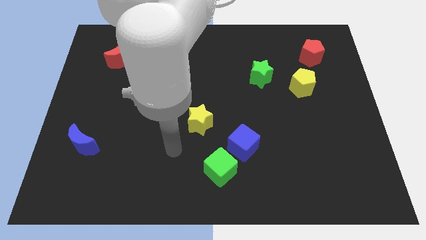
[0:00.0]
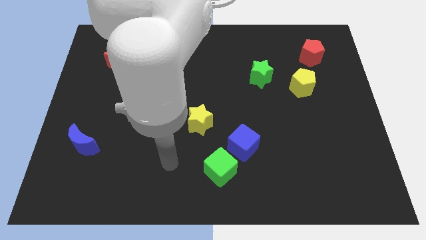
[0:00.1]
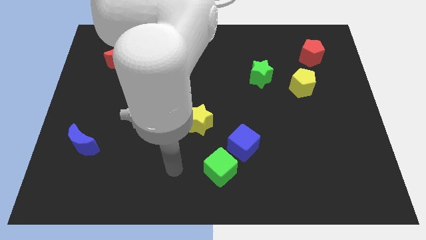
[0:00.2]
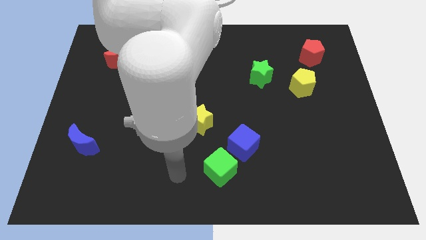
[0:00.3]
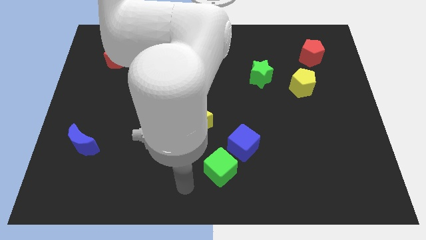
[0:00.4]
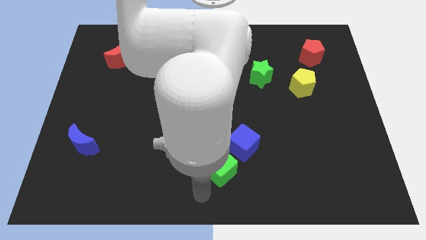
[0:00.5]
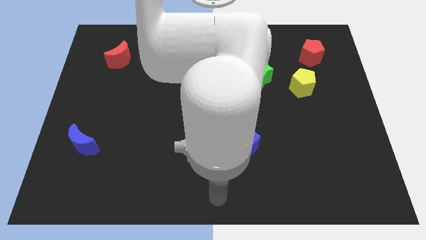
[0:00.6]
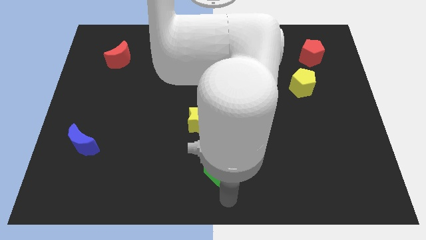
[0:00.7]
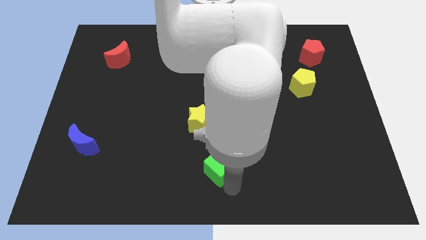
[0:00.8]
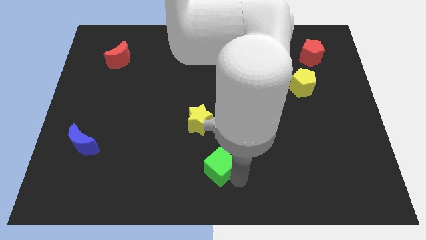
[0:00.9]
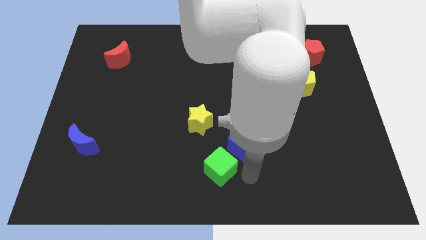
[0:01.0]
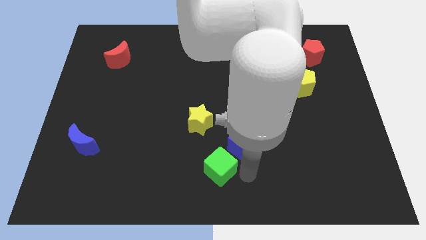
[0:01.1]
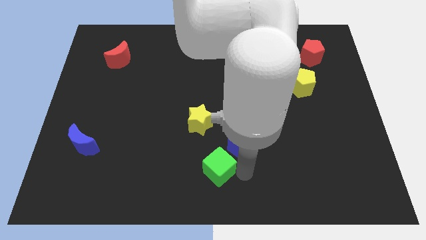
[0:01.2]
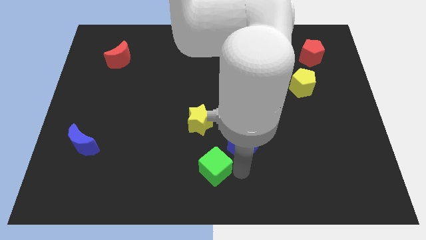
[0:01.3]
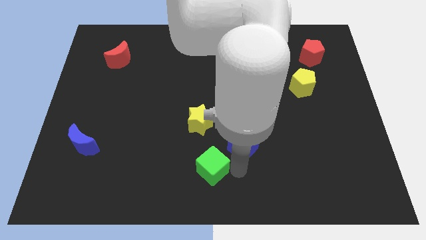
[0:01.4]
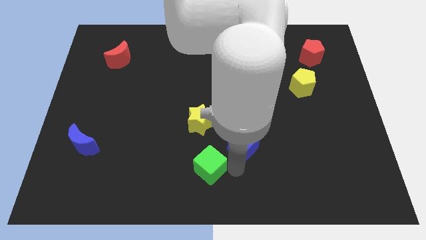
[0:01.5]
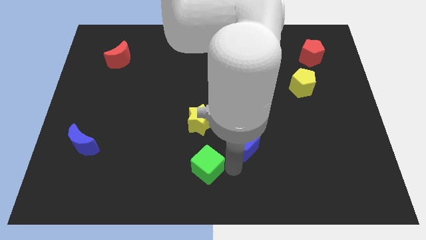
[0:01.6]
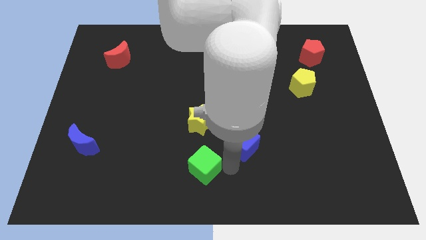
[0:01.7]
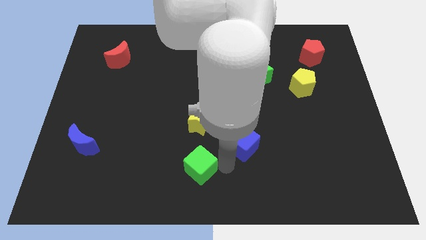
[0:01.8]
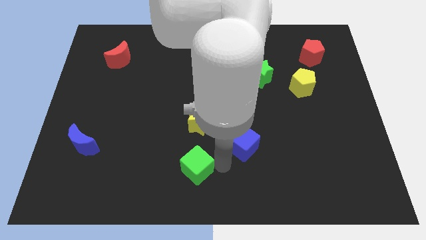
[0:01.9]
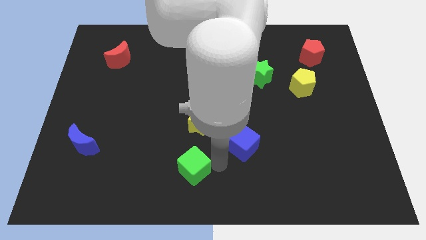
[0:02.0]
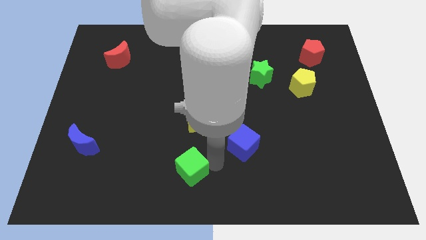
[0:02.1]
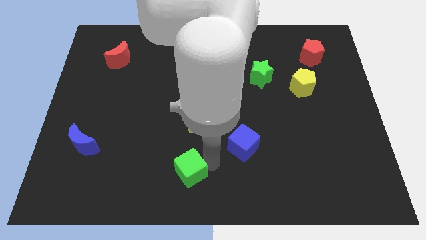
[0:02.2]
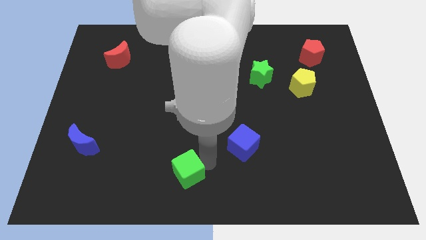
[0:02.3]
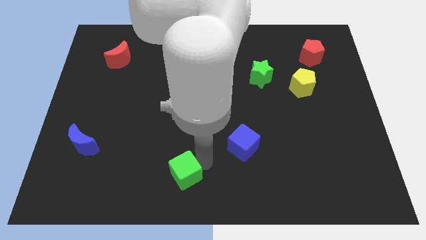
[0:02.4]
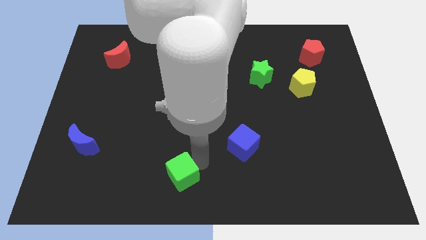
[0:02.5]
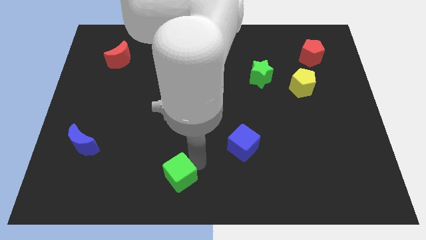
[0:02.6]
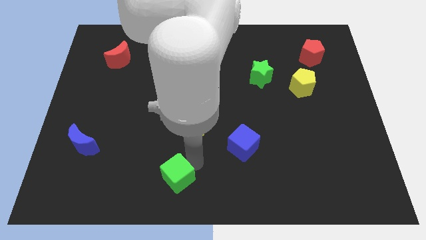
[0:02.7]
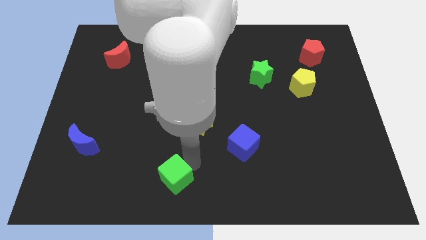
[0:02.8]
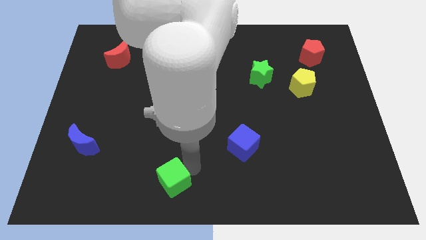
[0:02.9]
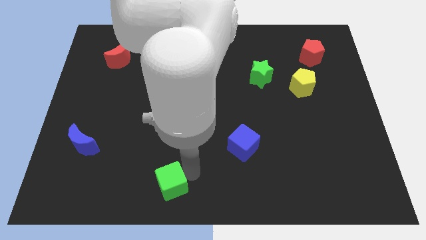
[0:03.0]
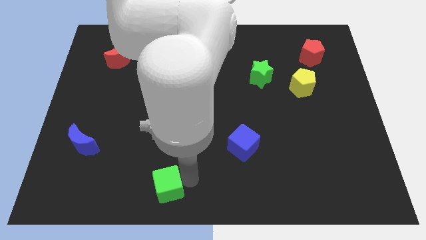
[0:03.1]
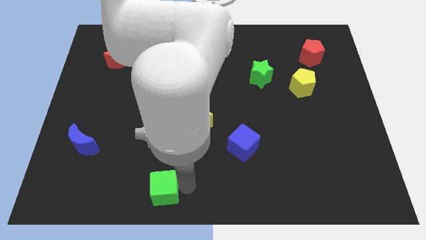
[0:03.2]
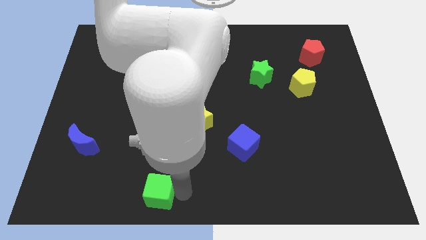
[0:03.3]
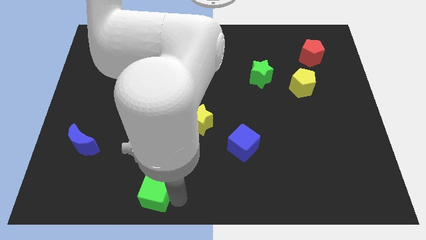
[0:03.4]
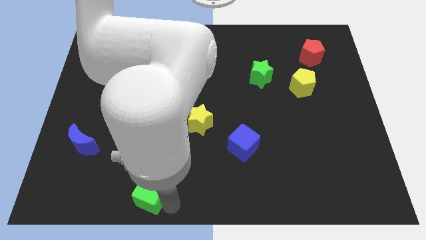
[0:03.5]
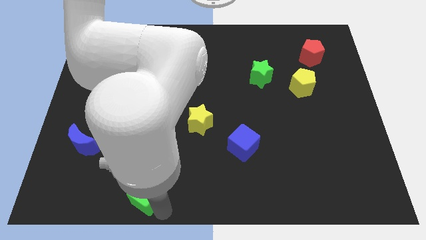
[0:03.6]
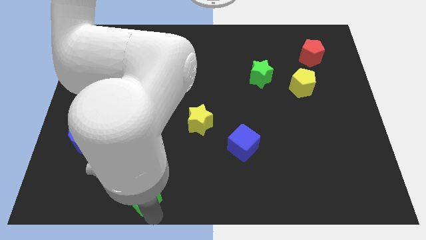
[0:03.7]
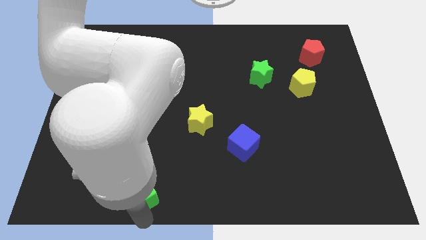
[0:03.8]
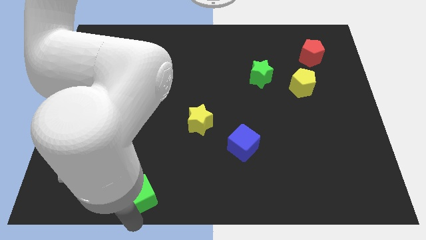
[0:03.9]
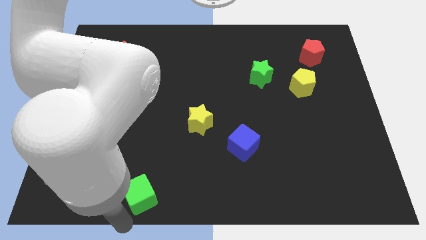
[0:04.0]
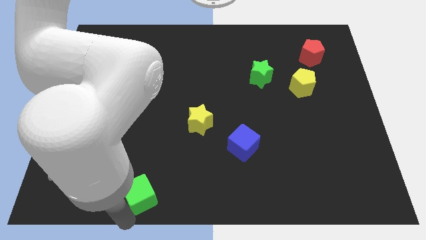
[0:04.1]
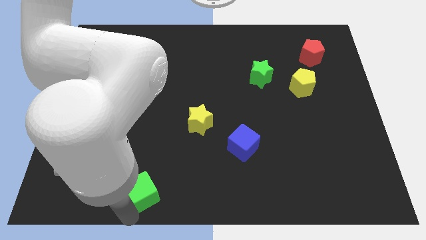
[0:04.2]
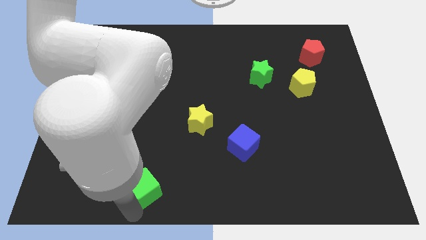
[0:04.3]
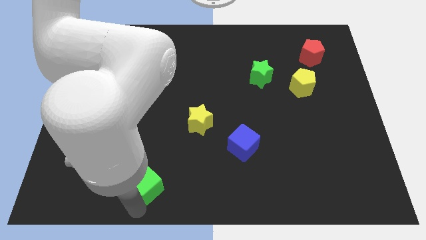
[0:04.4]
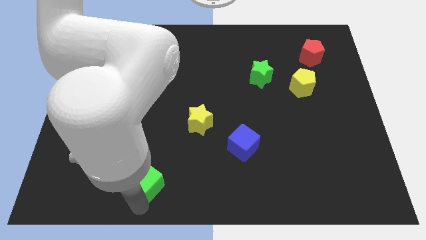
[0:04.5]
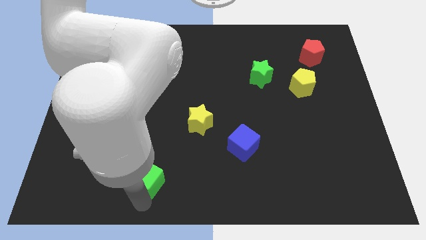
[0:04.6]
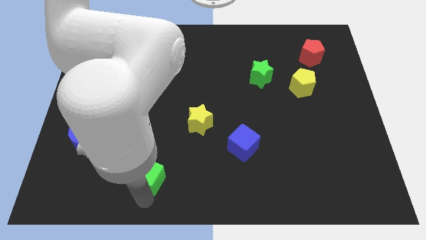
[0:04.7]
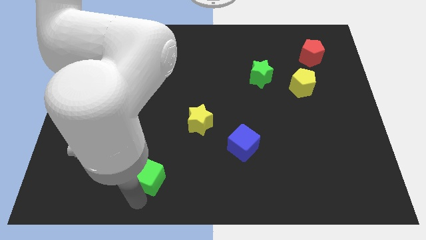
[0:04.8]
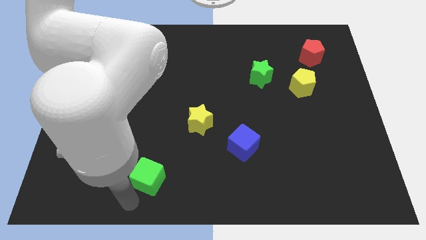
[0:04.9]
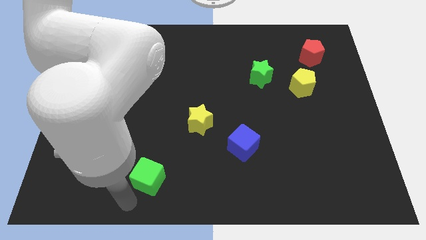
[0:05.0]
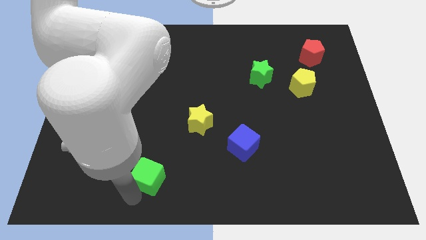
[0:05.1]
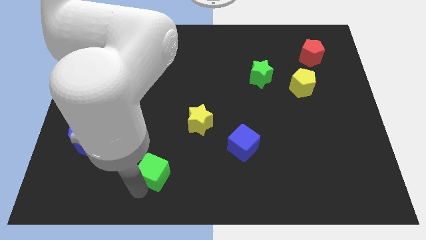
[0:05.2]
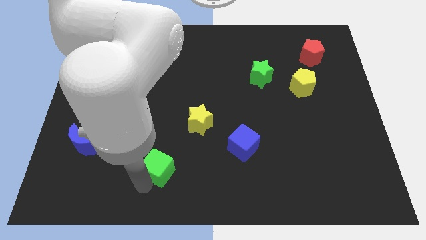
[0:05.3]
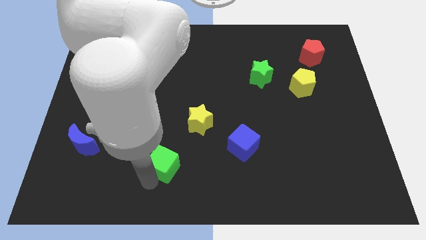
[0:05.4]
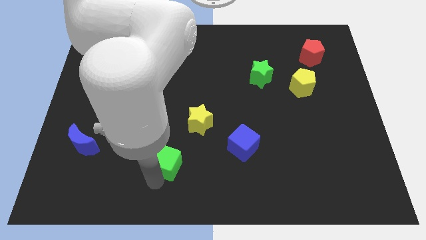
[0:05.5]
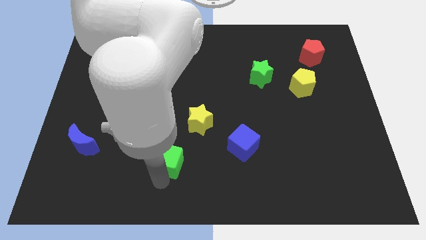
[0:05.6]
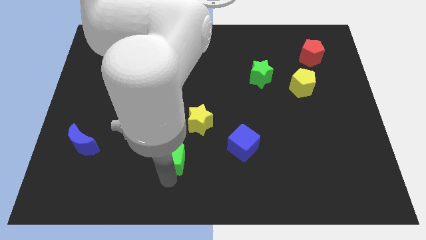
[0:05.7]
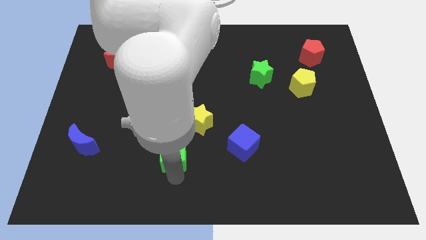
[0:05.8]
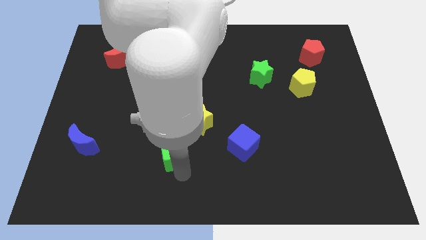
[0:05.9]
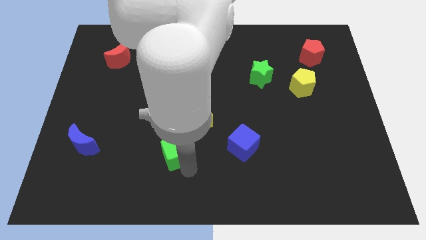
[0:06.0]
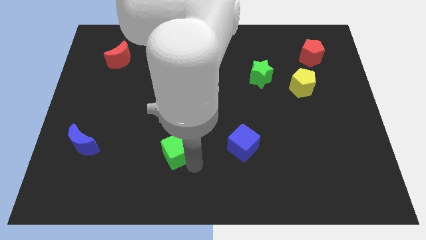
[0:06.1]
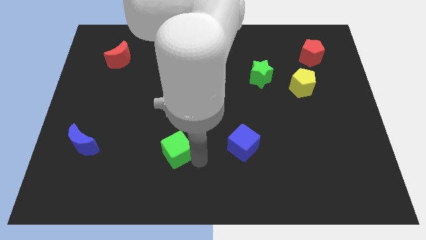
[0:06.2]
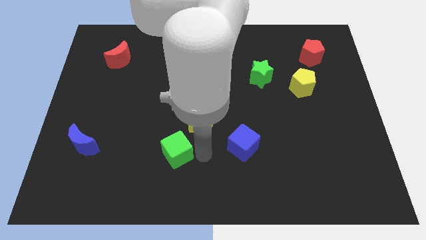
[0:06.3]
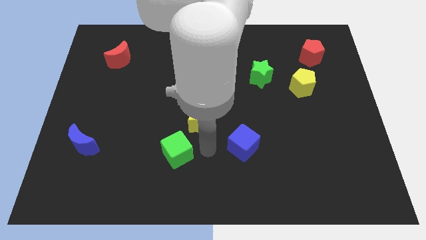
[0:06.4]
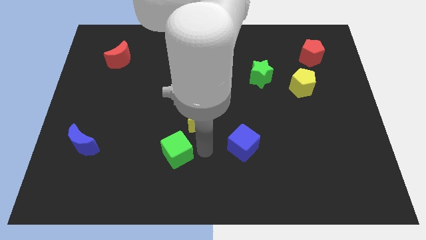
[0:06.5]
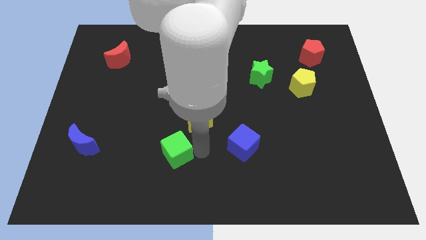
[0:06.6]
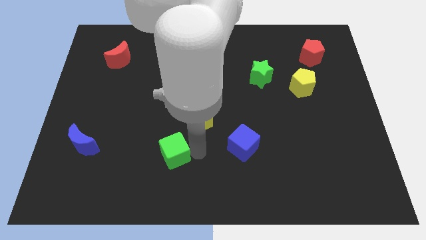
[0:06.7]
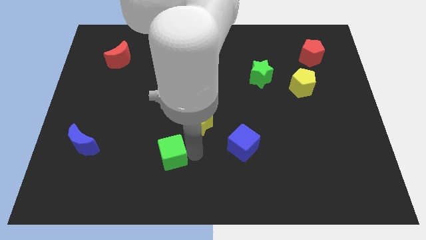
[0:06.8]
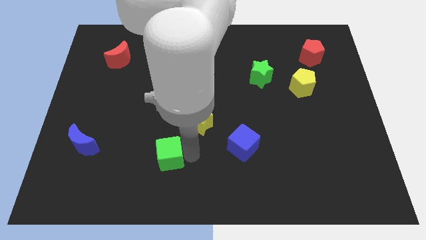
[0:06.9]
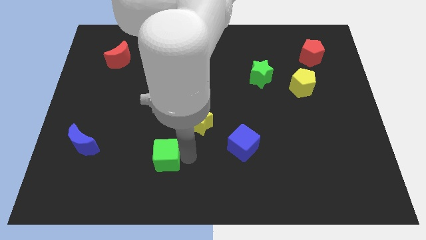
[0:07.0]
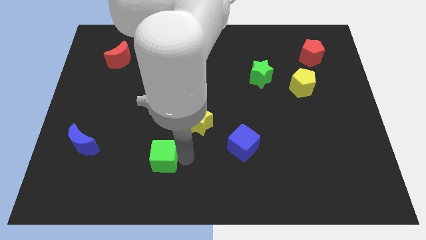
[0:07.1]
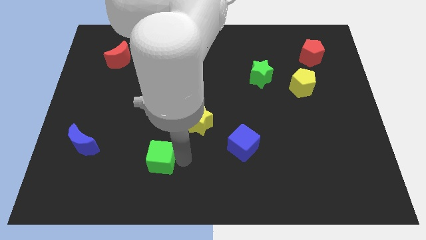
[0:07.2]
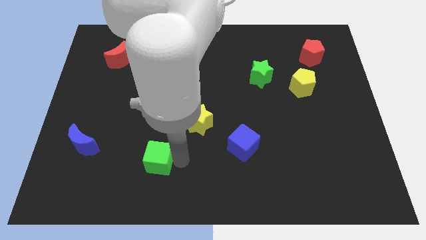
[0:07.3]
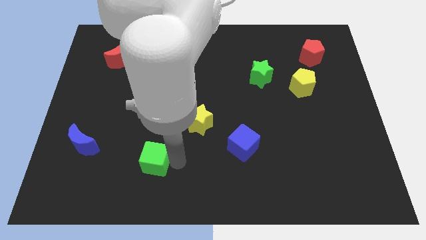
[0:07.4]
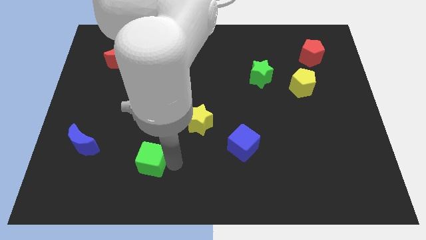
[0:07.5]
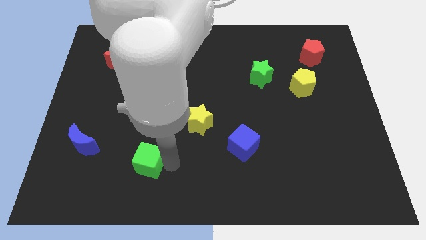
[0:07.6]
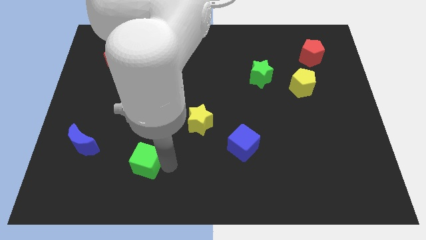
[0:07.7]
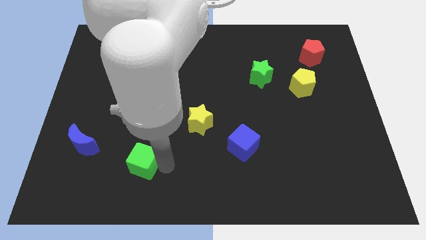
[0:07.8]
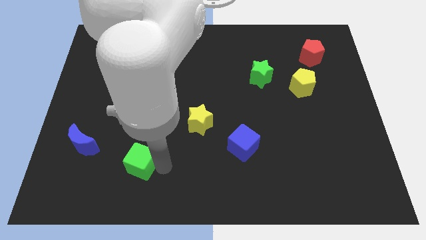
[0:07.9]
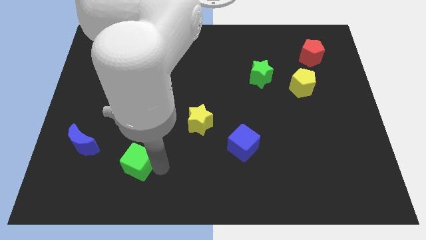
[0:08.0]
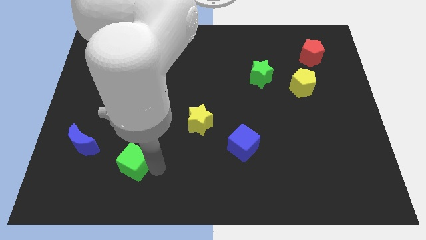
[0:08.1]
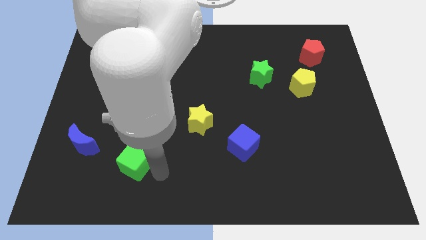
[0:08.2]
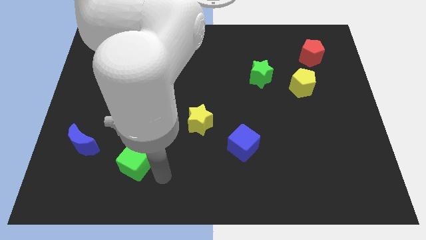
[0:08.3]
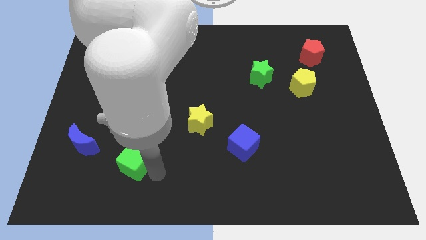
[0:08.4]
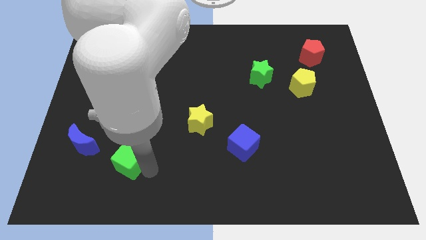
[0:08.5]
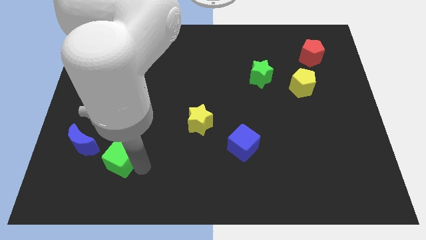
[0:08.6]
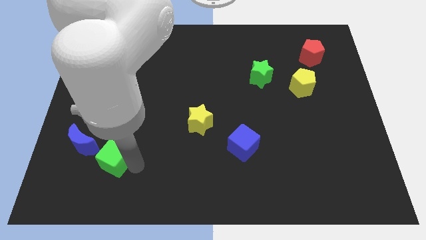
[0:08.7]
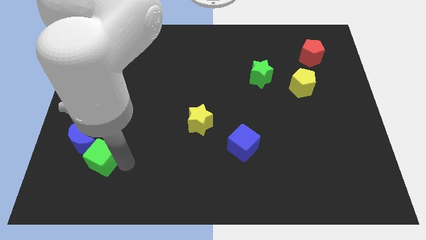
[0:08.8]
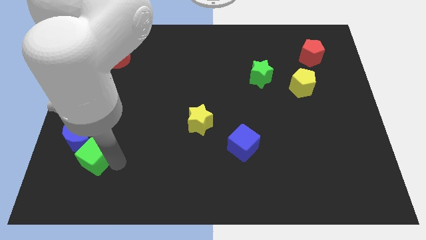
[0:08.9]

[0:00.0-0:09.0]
put the green cube next to the blue moon
